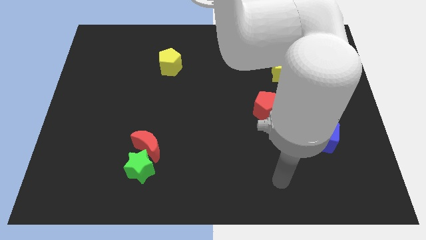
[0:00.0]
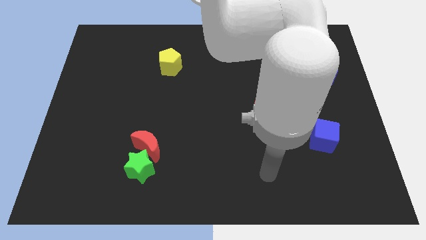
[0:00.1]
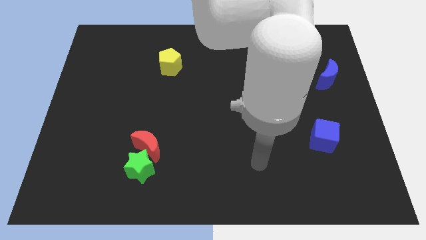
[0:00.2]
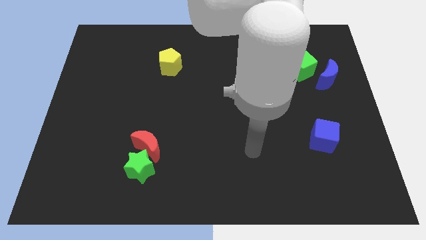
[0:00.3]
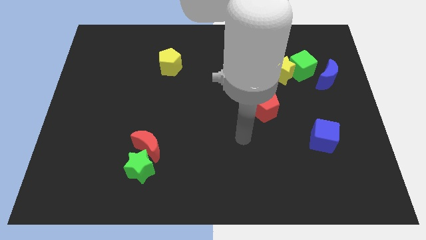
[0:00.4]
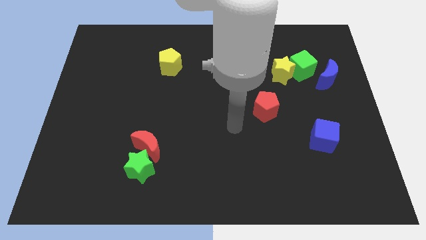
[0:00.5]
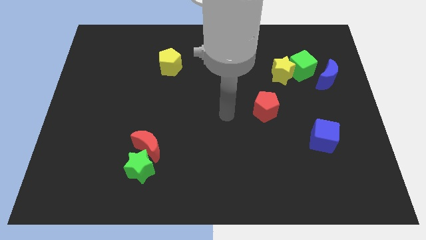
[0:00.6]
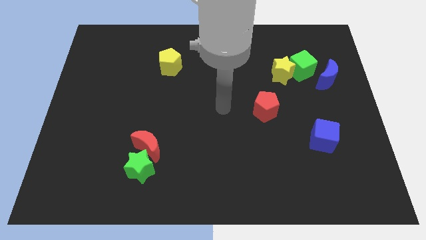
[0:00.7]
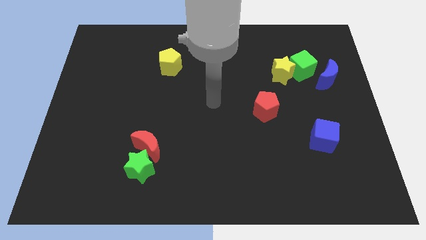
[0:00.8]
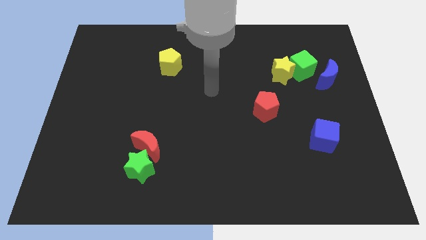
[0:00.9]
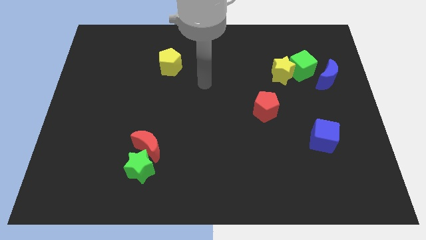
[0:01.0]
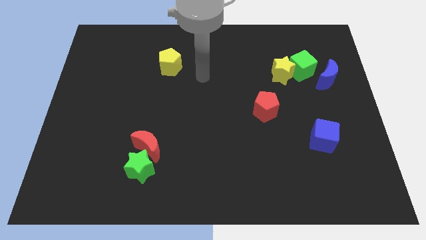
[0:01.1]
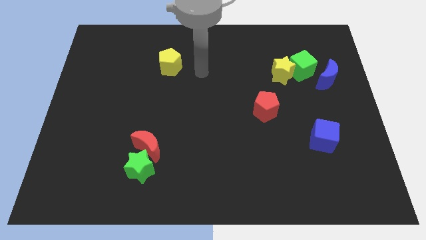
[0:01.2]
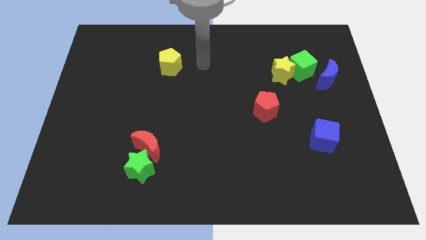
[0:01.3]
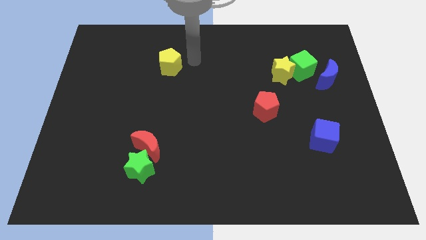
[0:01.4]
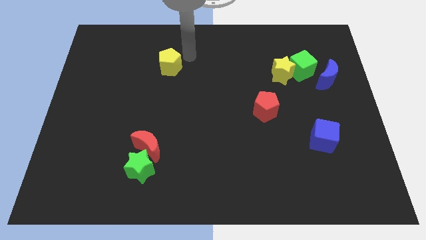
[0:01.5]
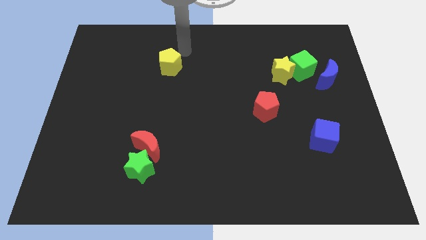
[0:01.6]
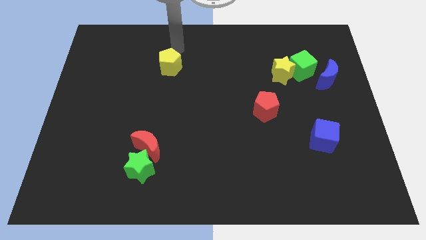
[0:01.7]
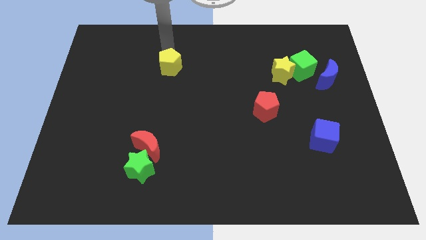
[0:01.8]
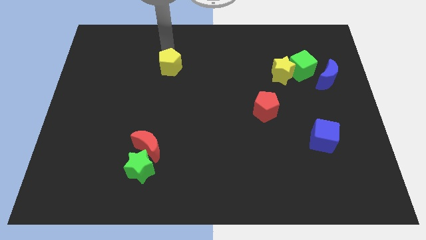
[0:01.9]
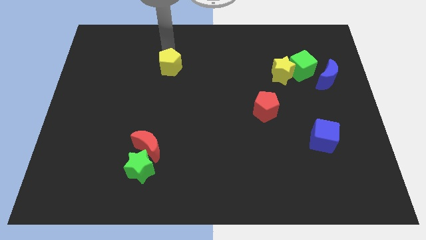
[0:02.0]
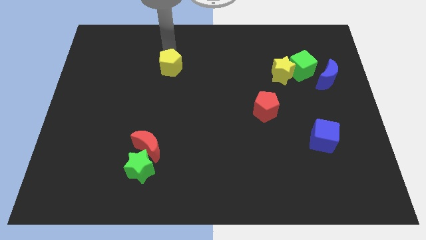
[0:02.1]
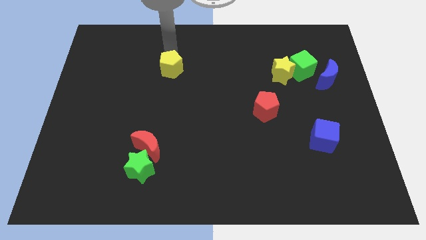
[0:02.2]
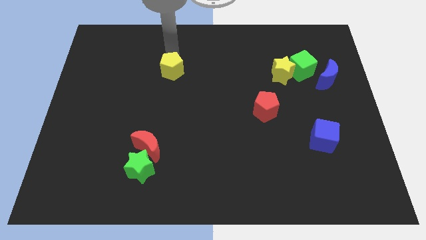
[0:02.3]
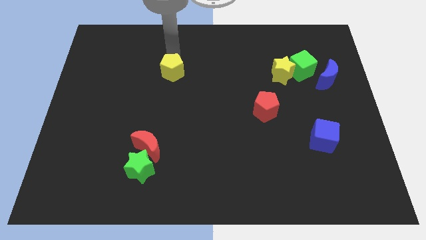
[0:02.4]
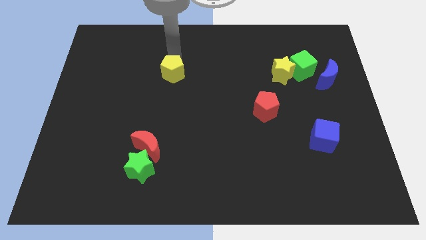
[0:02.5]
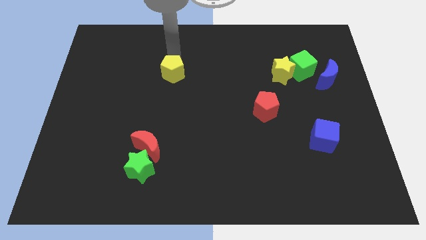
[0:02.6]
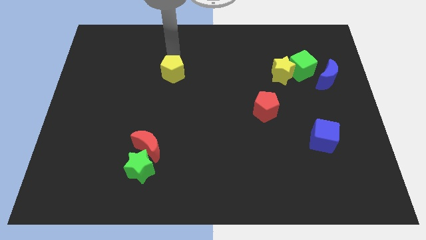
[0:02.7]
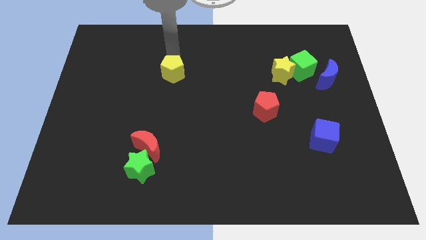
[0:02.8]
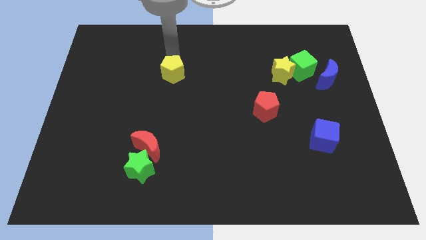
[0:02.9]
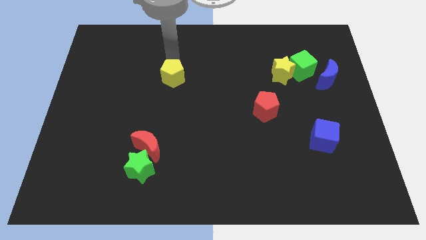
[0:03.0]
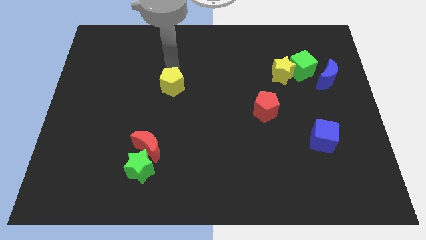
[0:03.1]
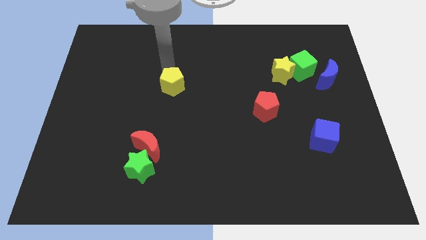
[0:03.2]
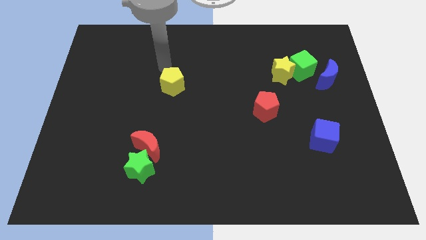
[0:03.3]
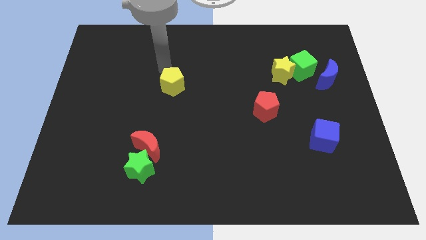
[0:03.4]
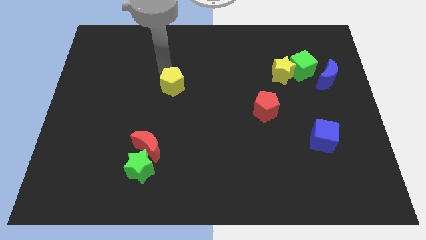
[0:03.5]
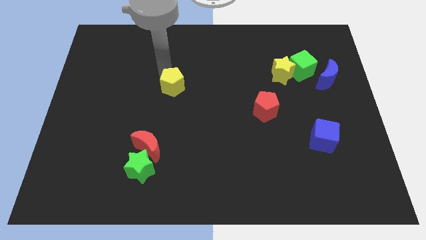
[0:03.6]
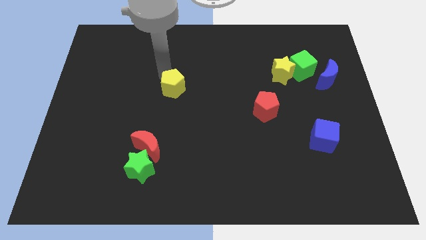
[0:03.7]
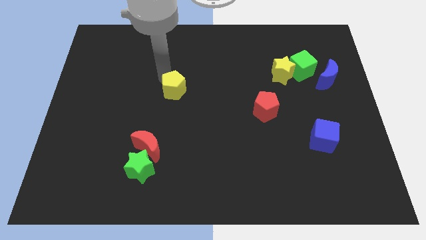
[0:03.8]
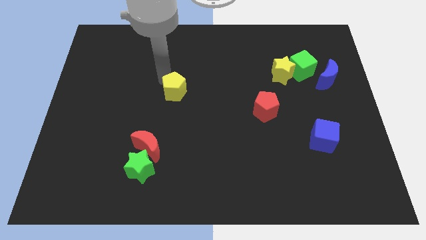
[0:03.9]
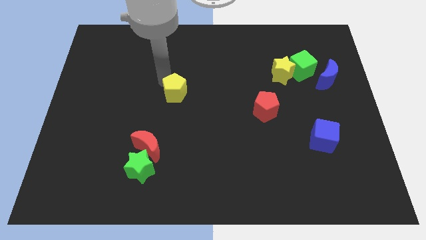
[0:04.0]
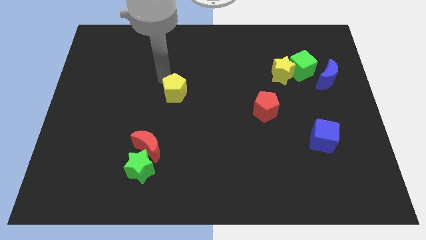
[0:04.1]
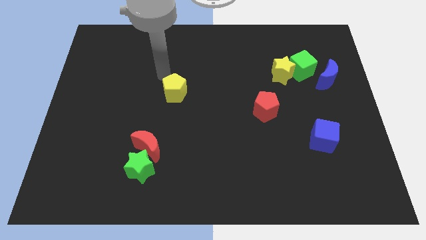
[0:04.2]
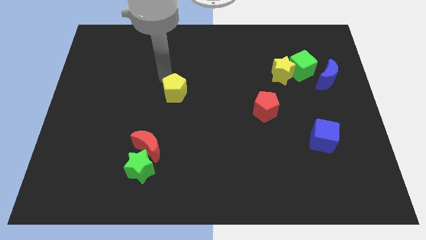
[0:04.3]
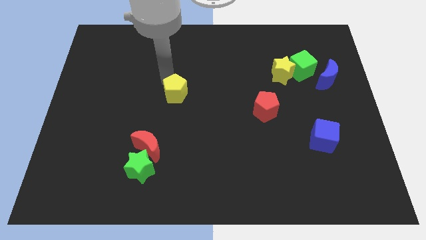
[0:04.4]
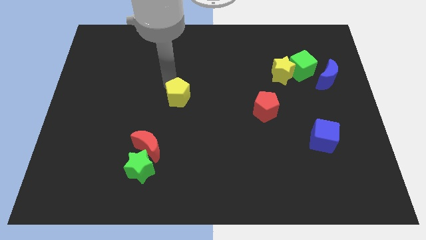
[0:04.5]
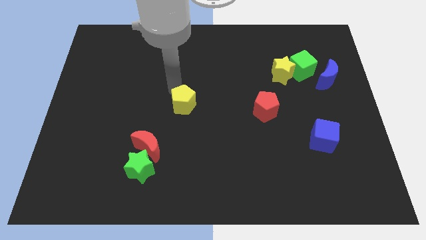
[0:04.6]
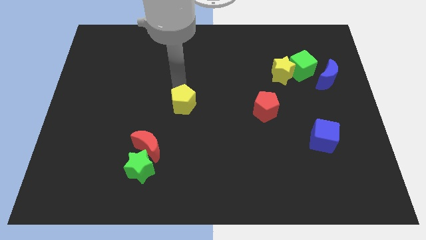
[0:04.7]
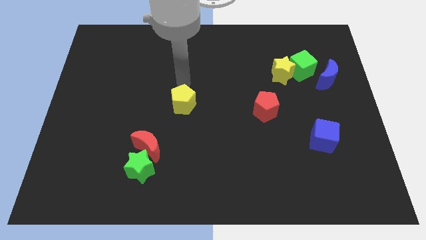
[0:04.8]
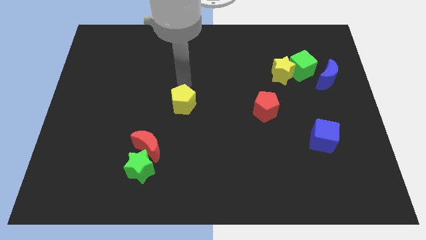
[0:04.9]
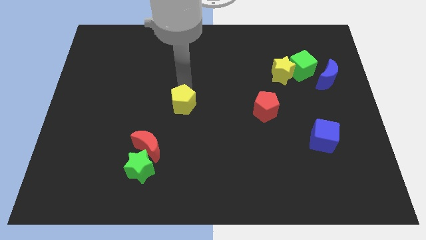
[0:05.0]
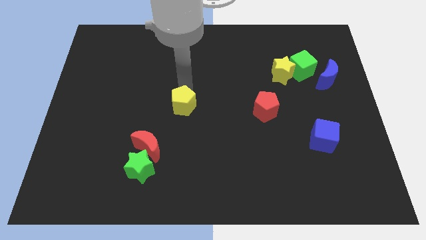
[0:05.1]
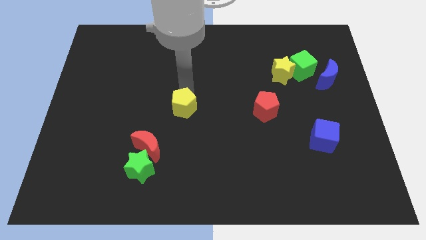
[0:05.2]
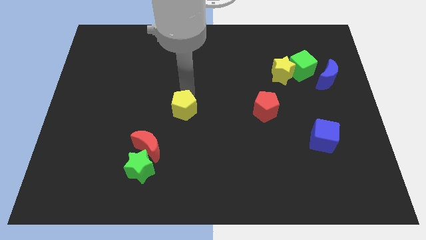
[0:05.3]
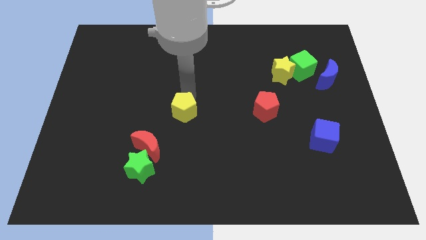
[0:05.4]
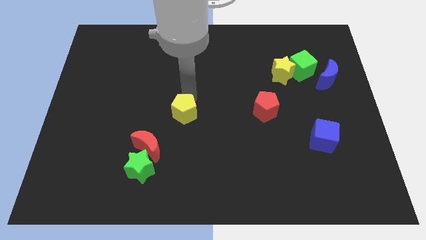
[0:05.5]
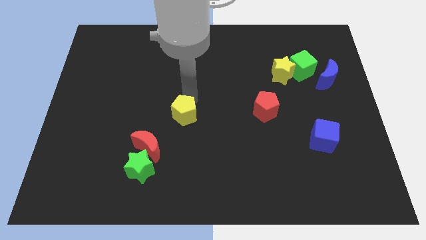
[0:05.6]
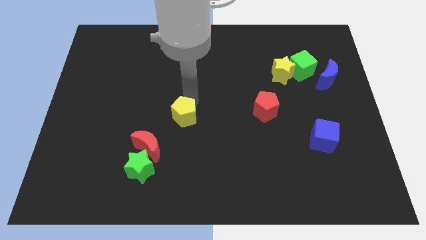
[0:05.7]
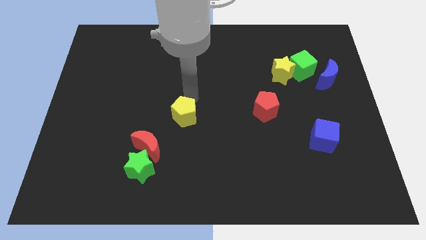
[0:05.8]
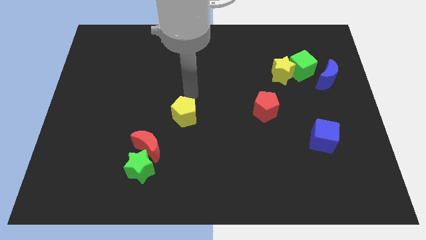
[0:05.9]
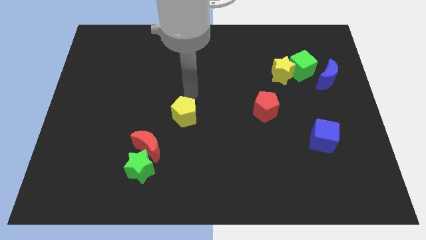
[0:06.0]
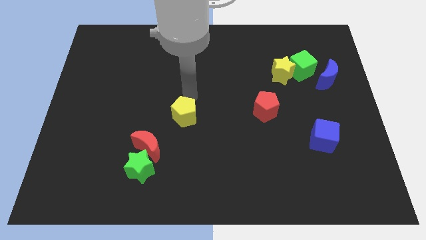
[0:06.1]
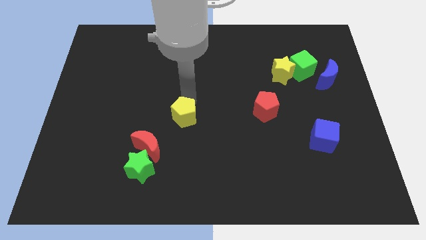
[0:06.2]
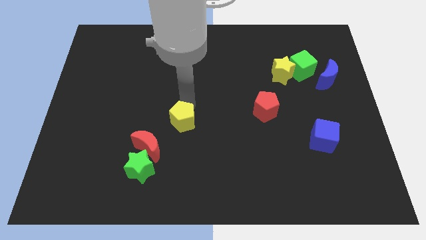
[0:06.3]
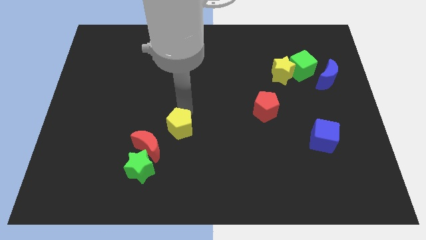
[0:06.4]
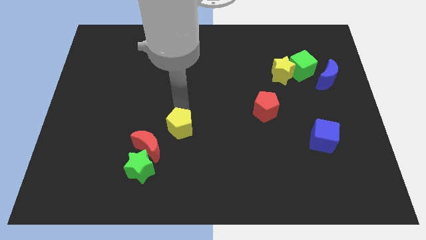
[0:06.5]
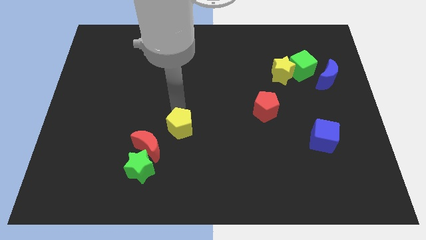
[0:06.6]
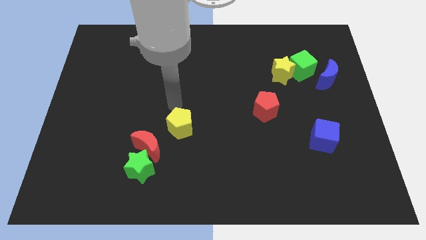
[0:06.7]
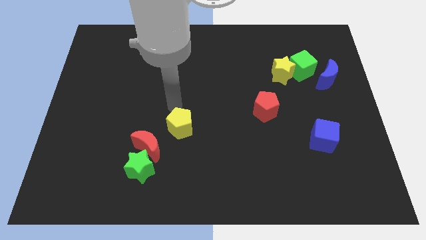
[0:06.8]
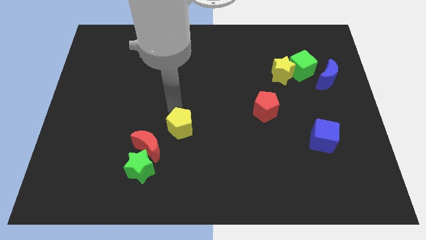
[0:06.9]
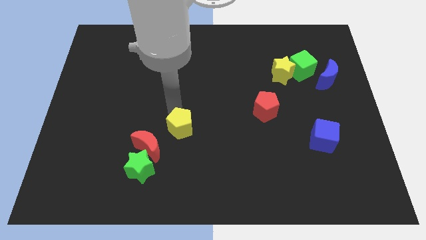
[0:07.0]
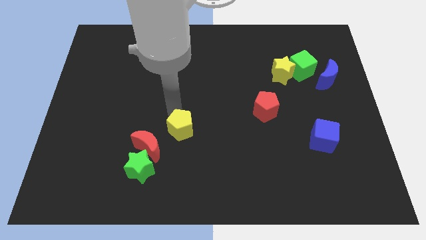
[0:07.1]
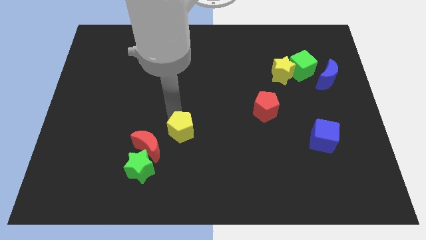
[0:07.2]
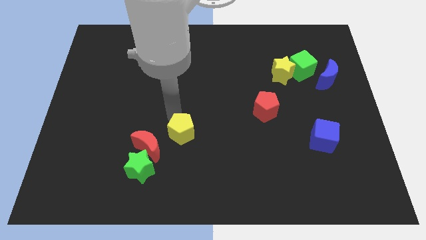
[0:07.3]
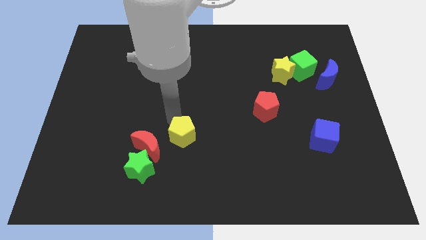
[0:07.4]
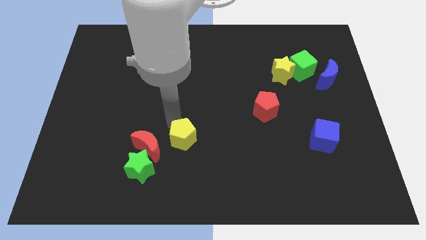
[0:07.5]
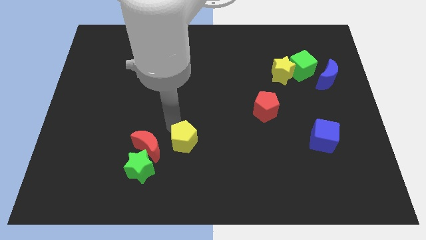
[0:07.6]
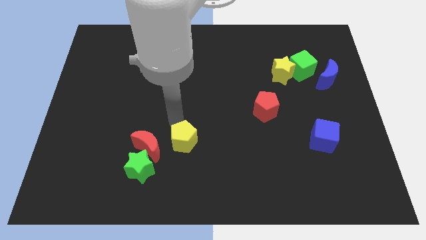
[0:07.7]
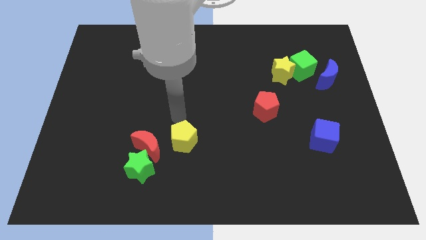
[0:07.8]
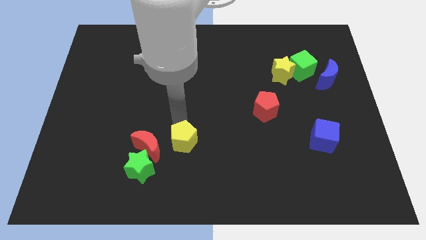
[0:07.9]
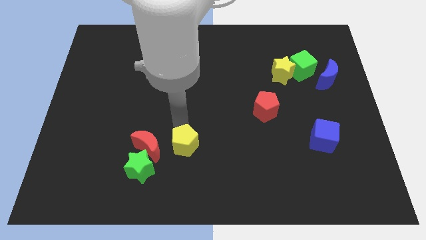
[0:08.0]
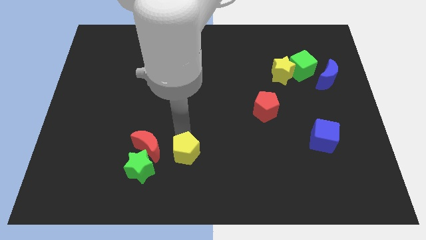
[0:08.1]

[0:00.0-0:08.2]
put the yellow pentagon just right of the green star
